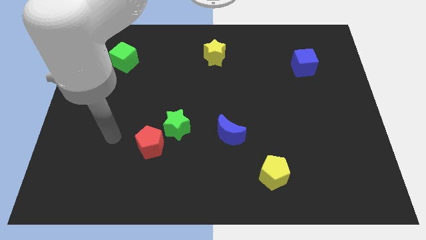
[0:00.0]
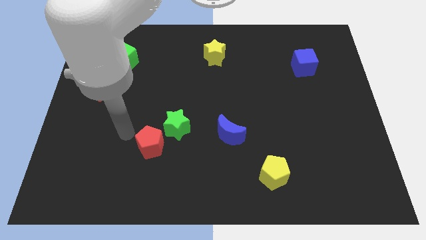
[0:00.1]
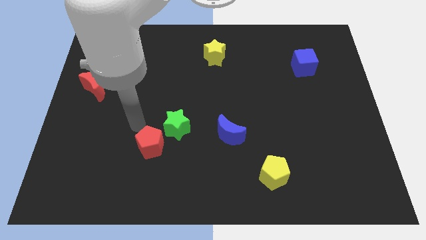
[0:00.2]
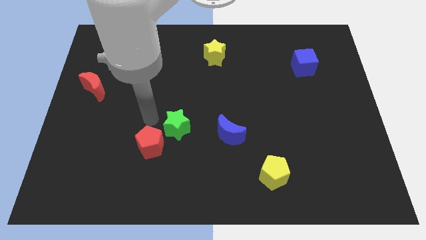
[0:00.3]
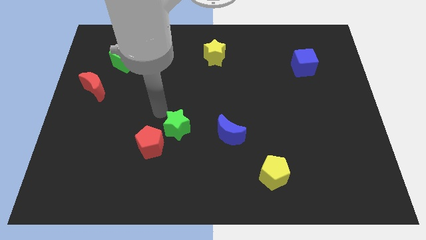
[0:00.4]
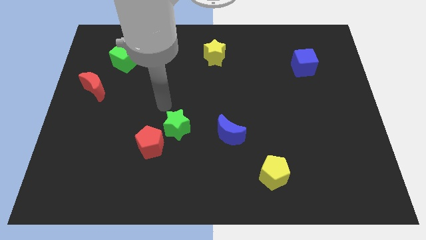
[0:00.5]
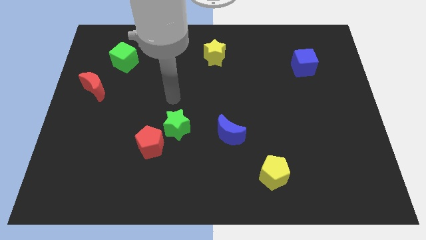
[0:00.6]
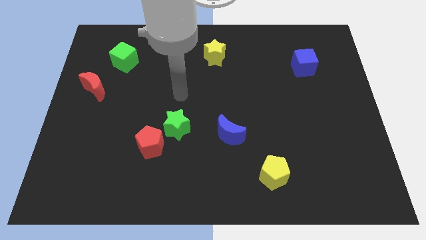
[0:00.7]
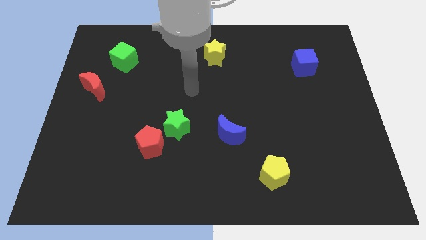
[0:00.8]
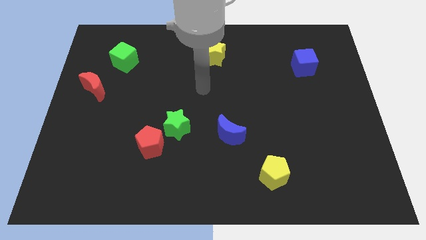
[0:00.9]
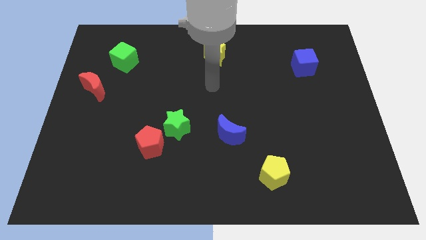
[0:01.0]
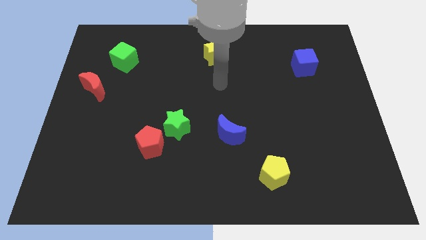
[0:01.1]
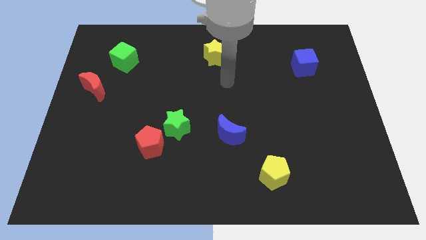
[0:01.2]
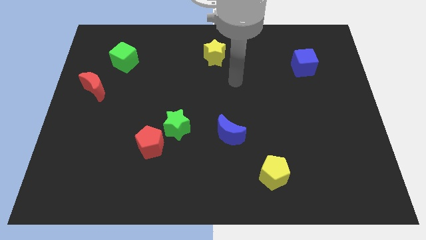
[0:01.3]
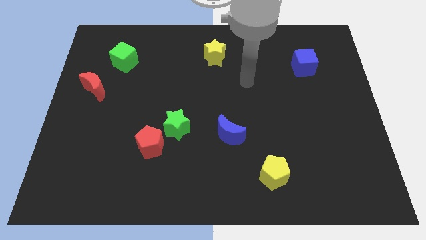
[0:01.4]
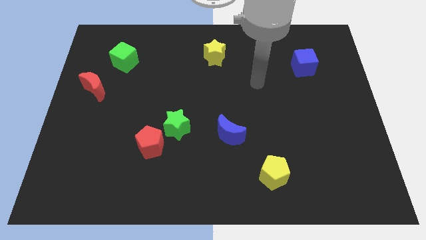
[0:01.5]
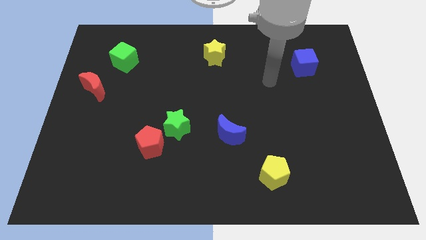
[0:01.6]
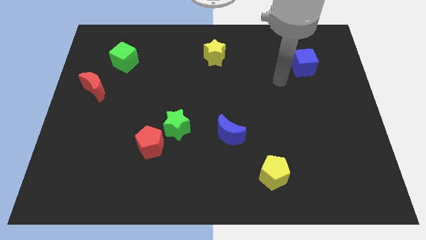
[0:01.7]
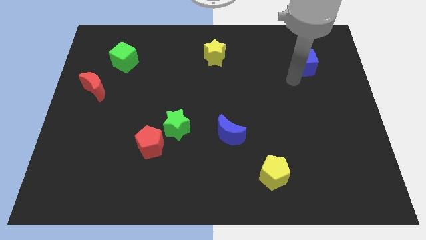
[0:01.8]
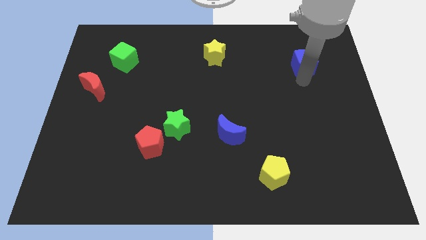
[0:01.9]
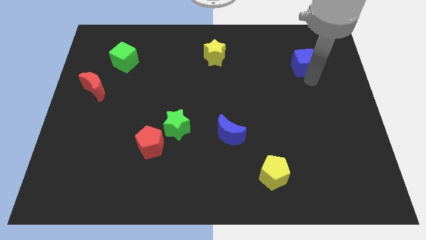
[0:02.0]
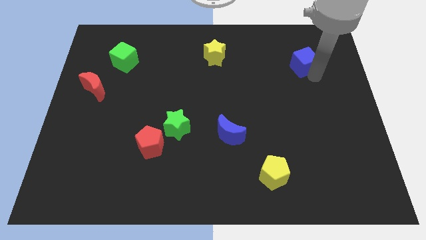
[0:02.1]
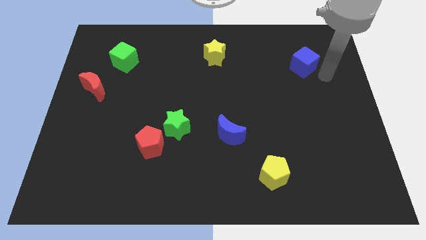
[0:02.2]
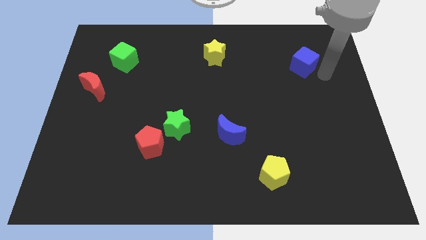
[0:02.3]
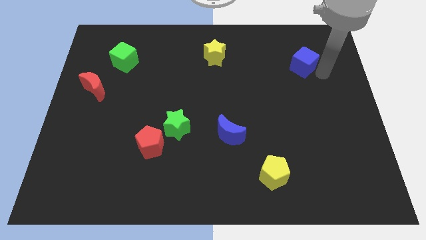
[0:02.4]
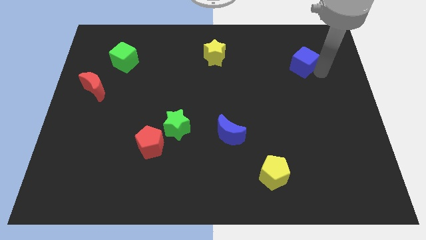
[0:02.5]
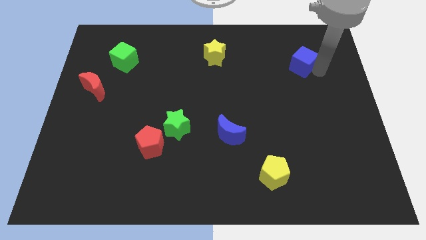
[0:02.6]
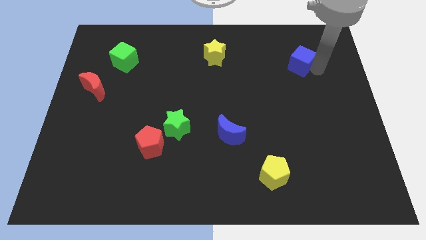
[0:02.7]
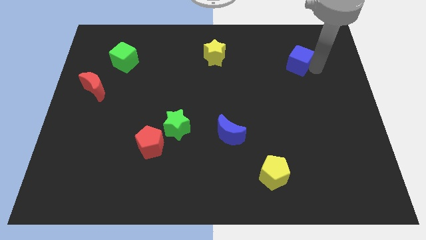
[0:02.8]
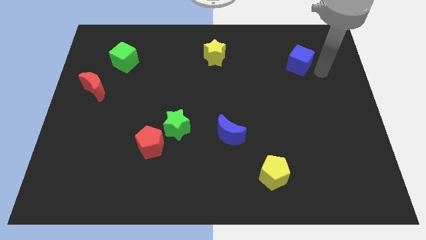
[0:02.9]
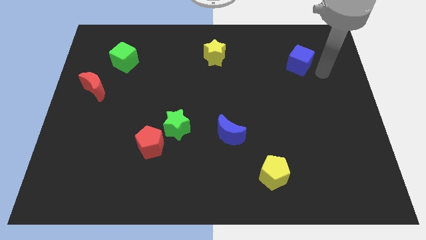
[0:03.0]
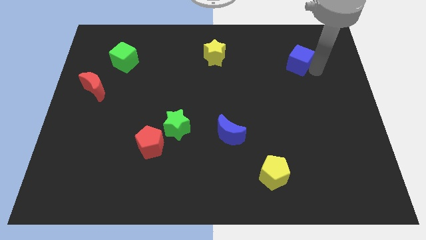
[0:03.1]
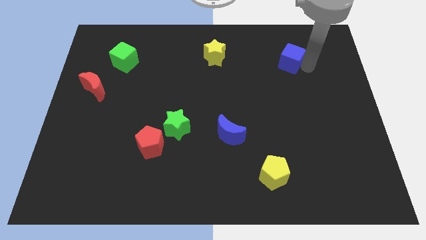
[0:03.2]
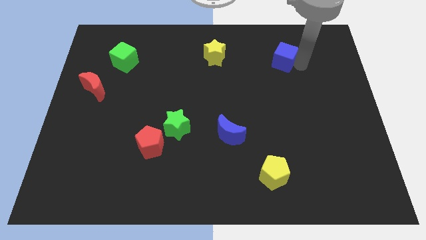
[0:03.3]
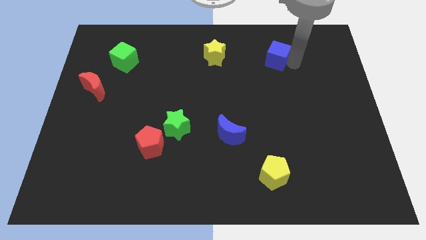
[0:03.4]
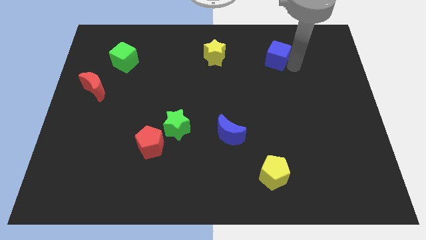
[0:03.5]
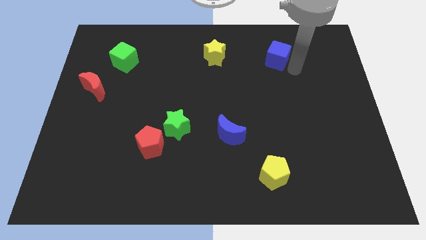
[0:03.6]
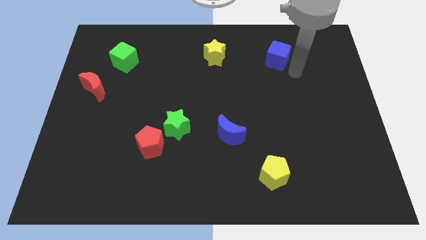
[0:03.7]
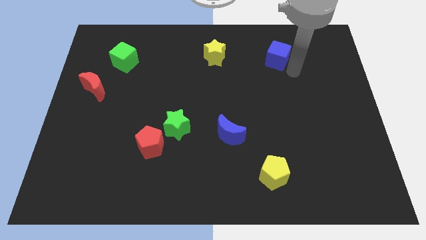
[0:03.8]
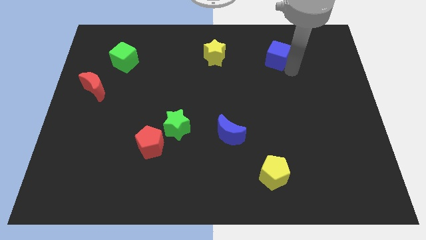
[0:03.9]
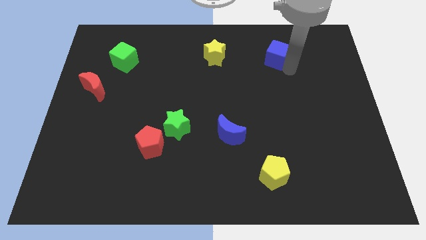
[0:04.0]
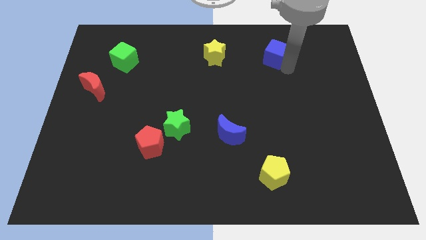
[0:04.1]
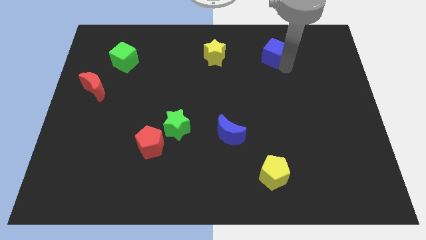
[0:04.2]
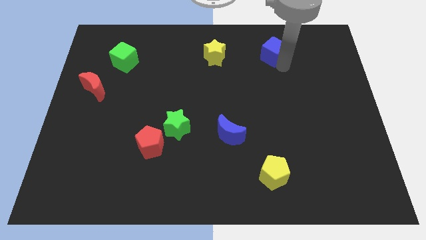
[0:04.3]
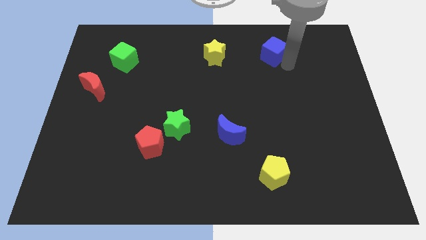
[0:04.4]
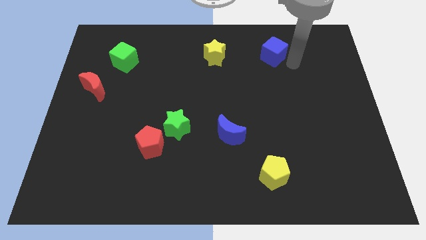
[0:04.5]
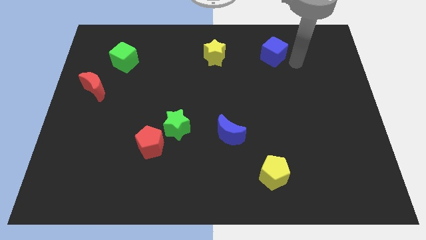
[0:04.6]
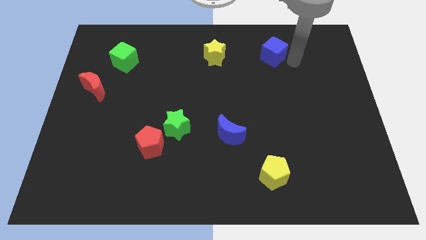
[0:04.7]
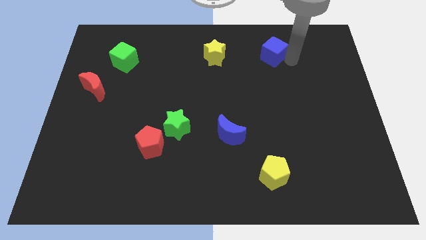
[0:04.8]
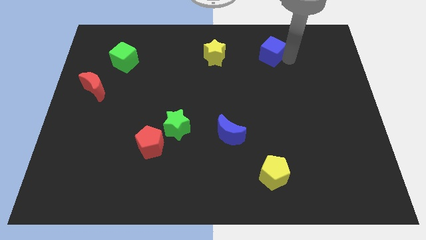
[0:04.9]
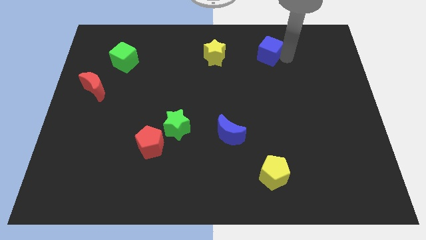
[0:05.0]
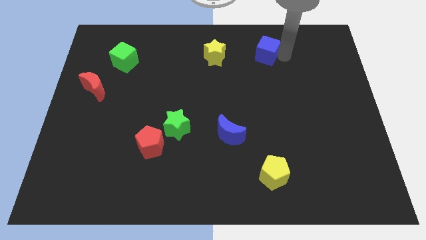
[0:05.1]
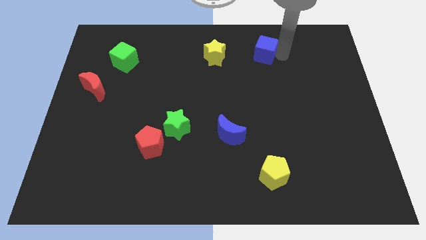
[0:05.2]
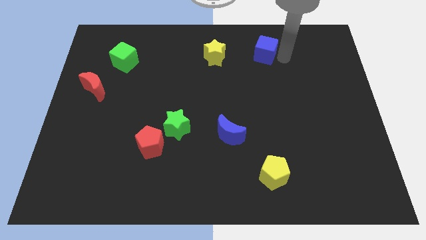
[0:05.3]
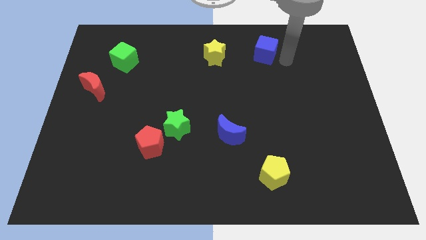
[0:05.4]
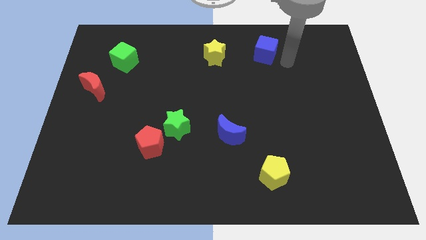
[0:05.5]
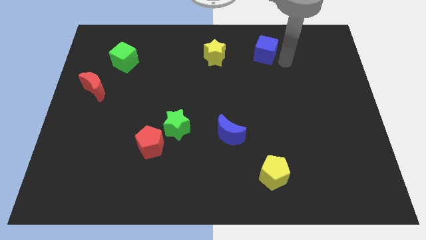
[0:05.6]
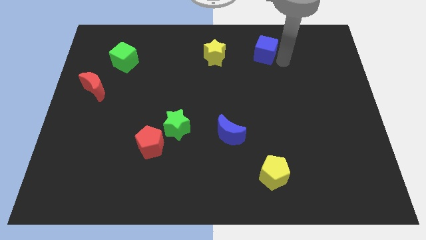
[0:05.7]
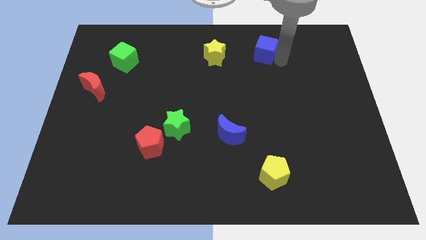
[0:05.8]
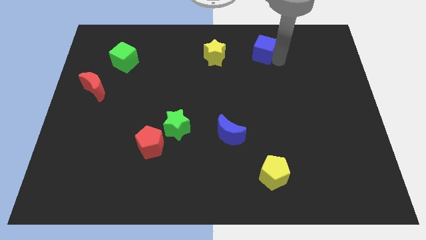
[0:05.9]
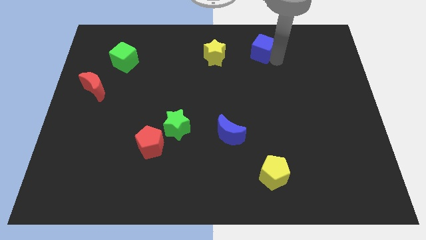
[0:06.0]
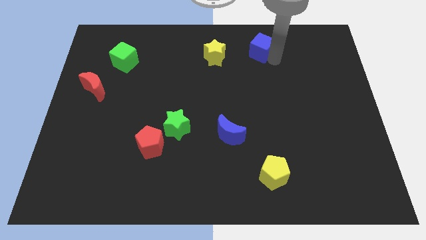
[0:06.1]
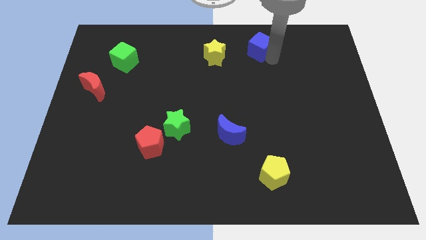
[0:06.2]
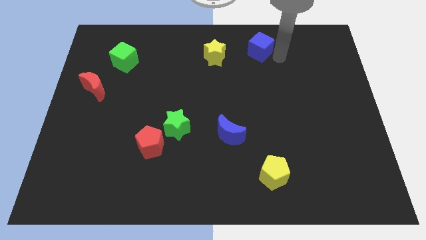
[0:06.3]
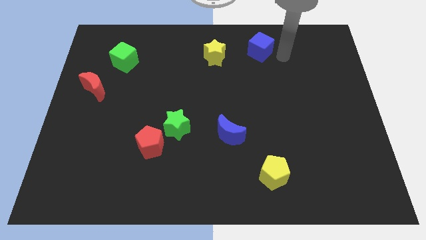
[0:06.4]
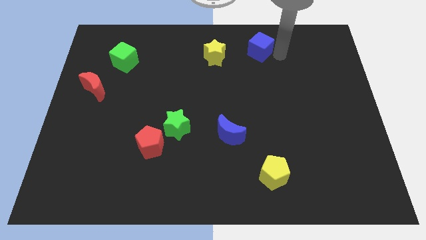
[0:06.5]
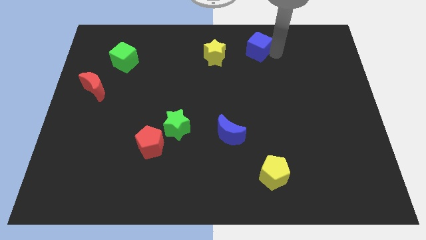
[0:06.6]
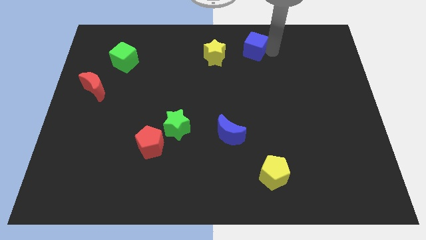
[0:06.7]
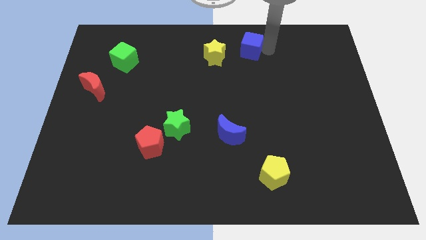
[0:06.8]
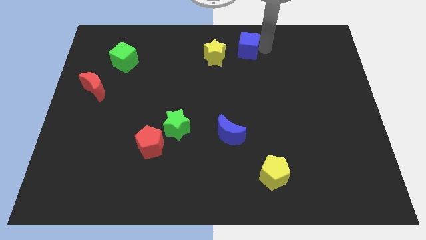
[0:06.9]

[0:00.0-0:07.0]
put the blue cube to the top

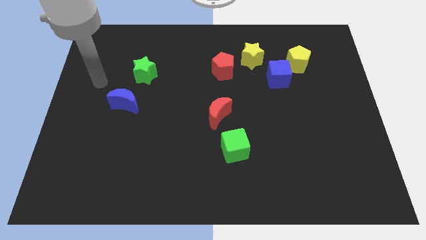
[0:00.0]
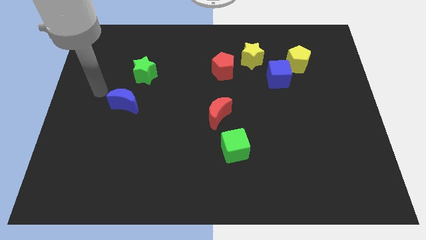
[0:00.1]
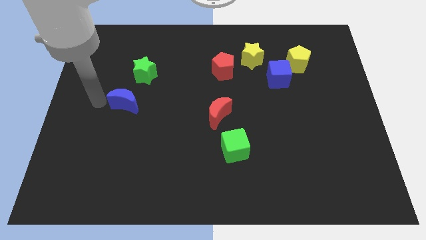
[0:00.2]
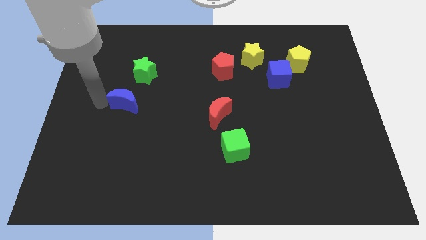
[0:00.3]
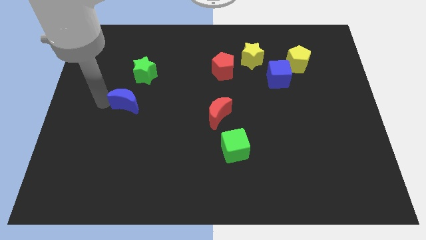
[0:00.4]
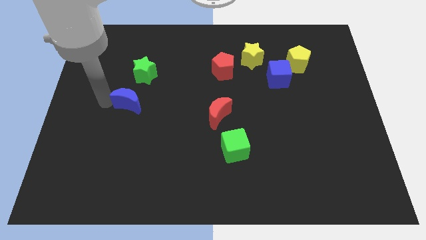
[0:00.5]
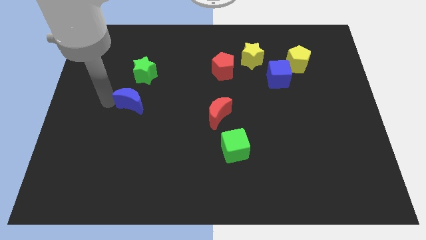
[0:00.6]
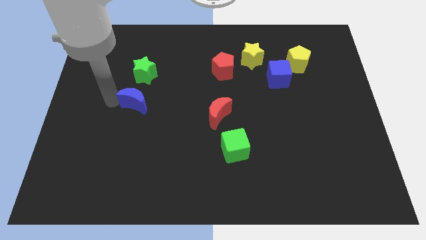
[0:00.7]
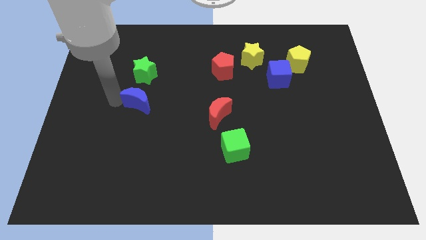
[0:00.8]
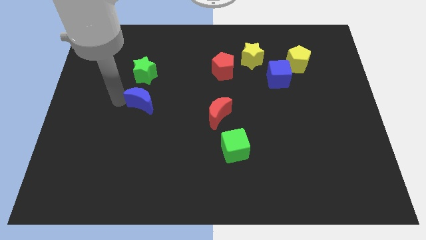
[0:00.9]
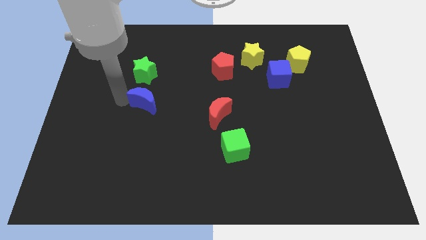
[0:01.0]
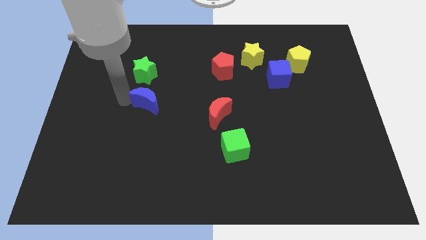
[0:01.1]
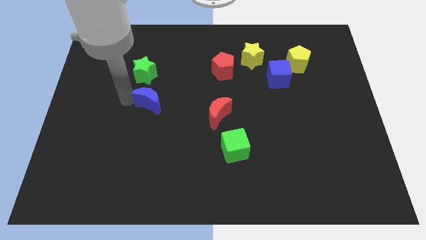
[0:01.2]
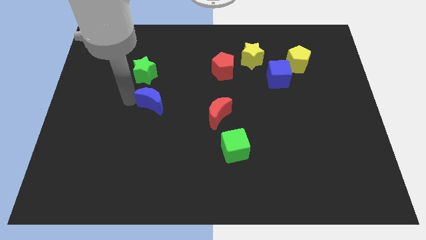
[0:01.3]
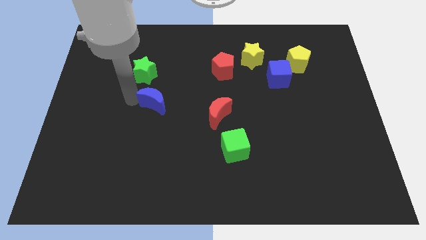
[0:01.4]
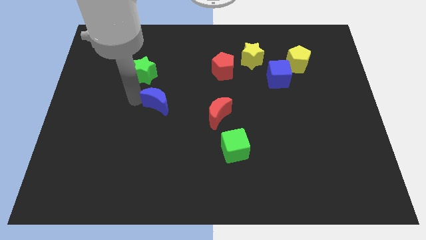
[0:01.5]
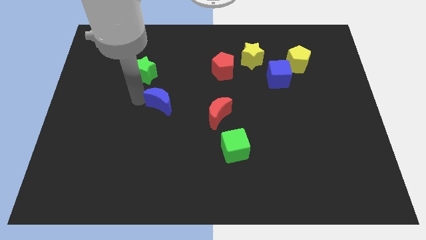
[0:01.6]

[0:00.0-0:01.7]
put the blue moon to the center
